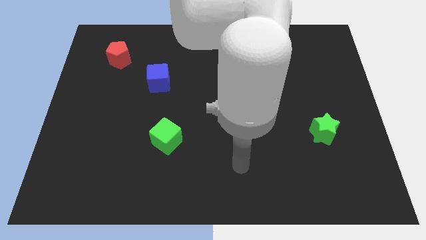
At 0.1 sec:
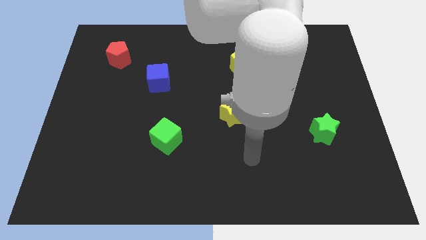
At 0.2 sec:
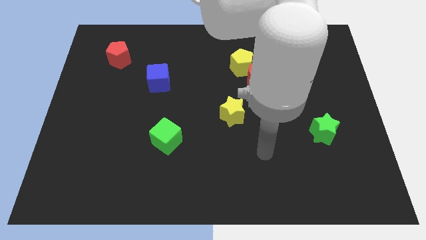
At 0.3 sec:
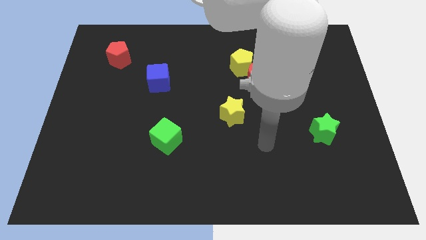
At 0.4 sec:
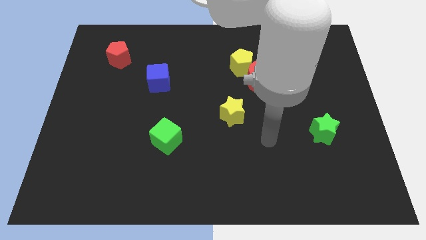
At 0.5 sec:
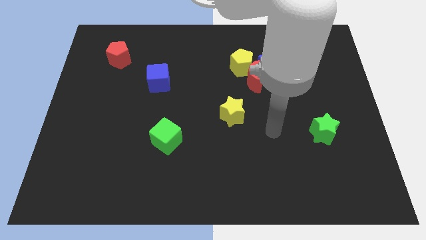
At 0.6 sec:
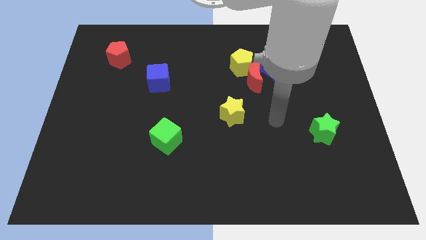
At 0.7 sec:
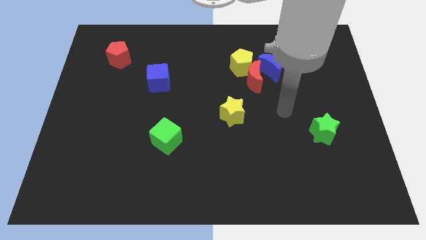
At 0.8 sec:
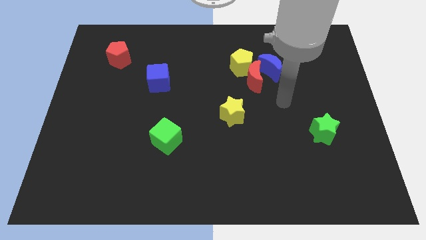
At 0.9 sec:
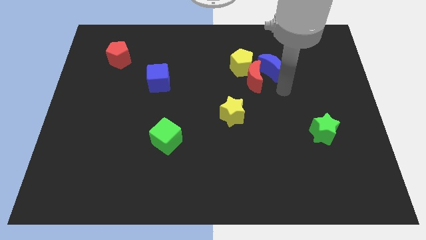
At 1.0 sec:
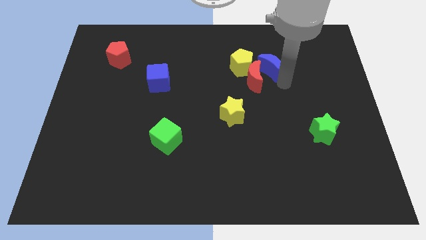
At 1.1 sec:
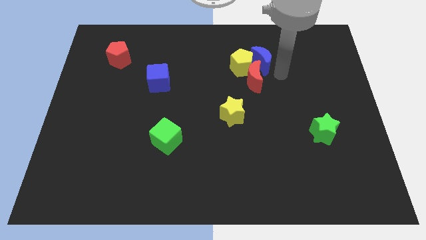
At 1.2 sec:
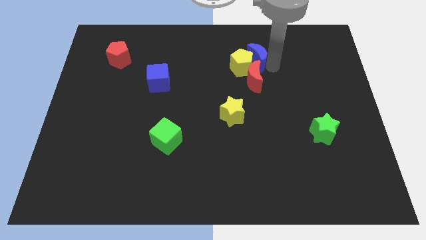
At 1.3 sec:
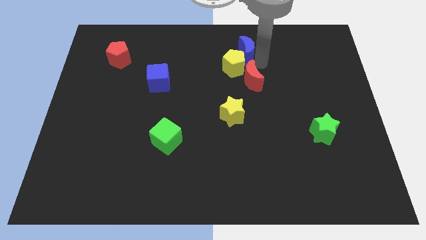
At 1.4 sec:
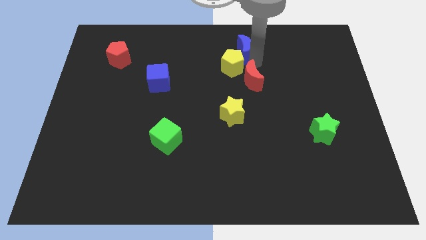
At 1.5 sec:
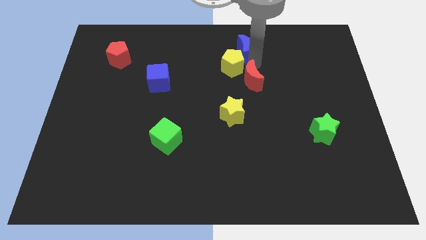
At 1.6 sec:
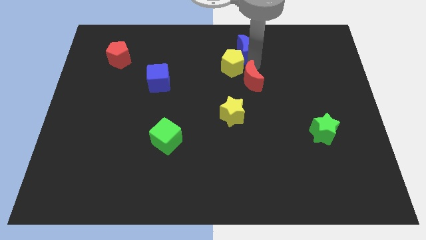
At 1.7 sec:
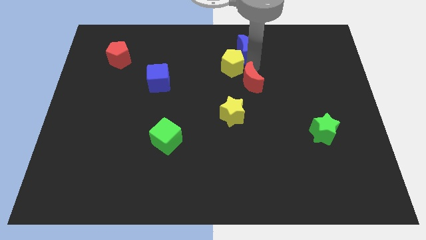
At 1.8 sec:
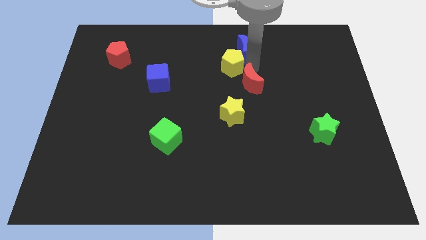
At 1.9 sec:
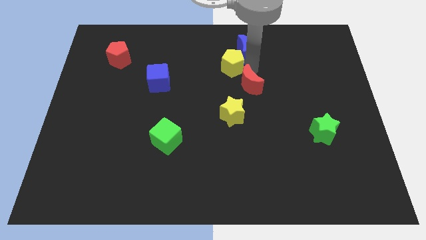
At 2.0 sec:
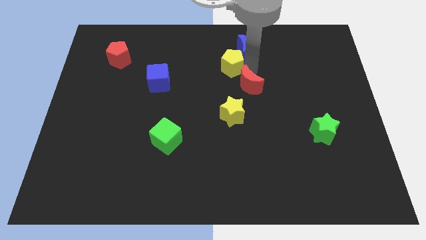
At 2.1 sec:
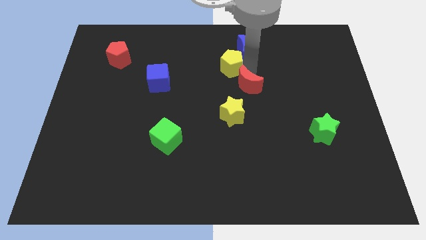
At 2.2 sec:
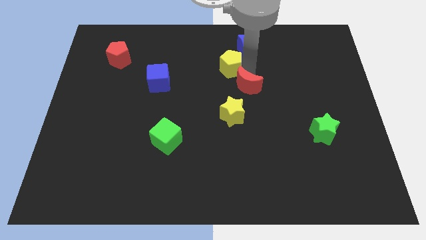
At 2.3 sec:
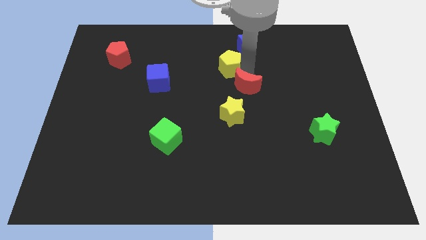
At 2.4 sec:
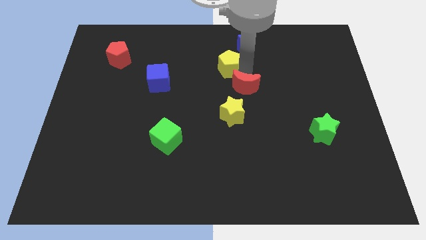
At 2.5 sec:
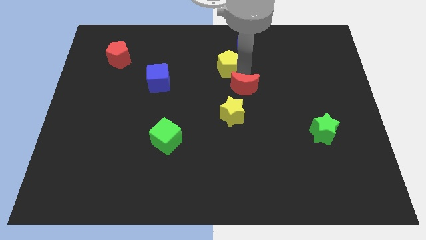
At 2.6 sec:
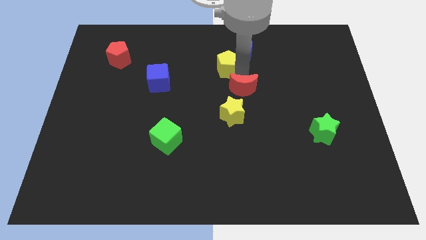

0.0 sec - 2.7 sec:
pull the red moon apart from the yellow pentagon and blue moon

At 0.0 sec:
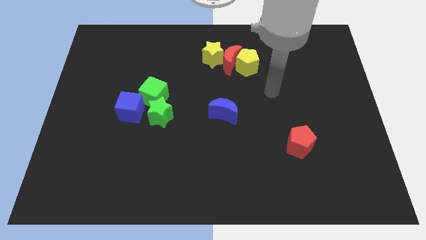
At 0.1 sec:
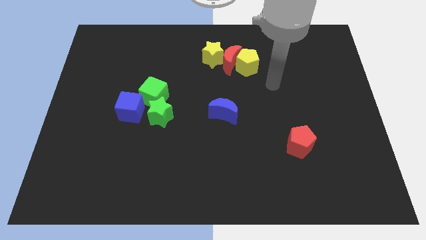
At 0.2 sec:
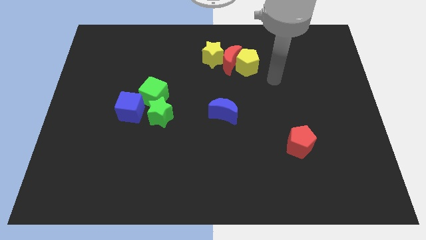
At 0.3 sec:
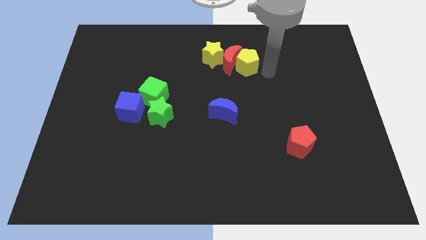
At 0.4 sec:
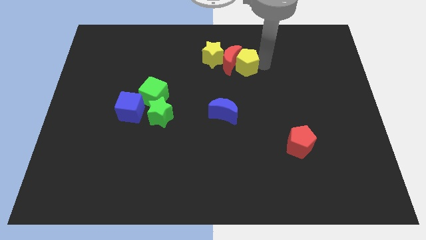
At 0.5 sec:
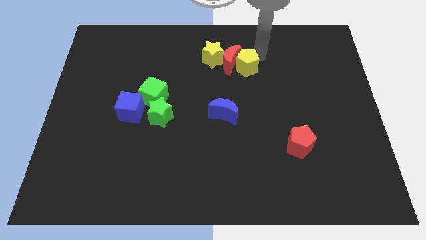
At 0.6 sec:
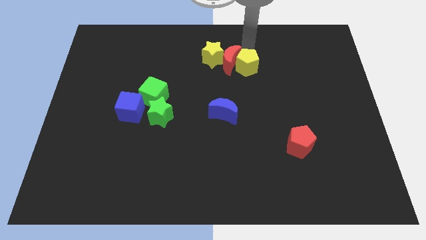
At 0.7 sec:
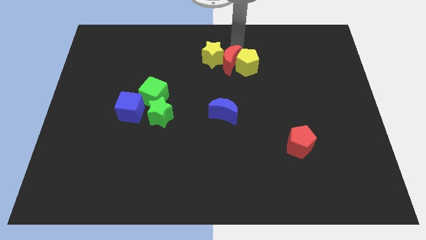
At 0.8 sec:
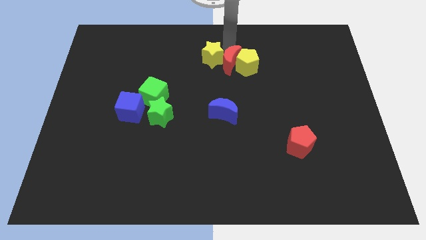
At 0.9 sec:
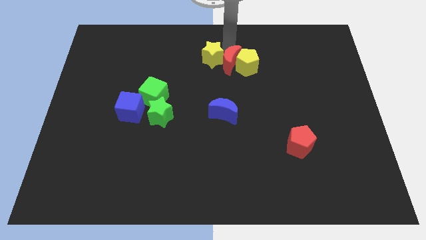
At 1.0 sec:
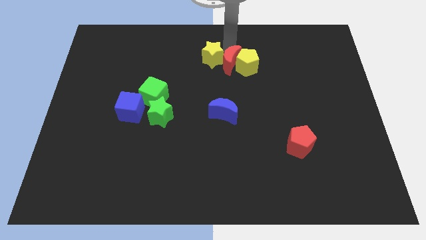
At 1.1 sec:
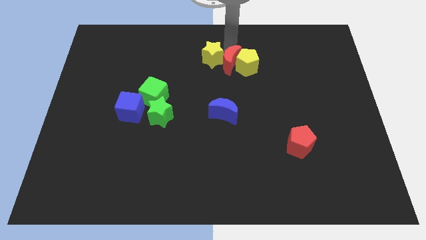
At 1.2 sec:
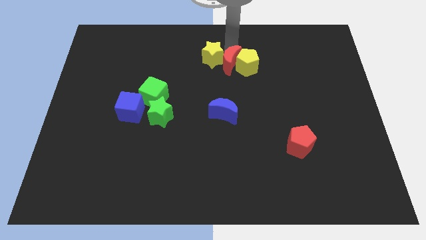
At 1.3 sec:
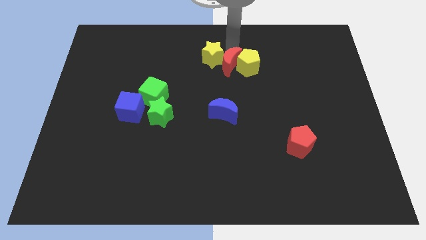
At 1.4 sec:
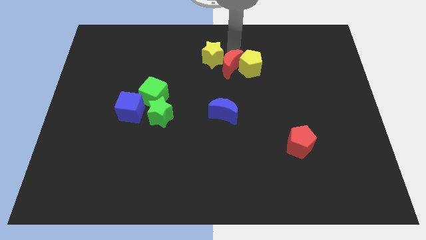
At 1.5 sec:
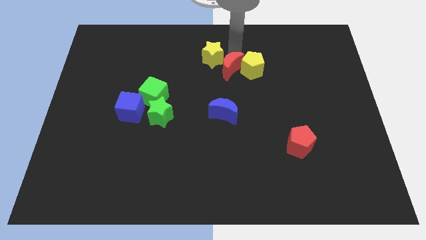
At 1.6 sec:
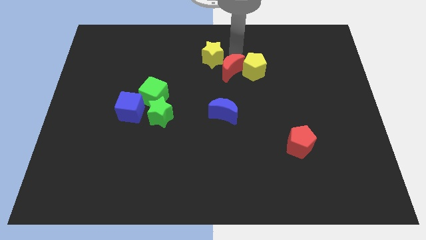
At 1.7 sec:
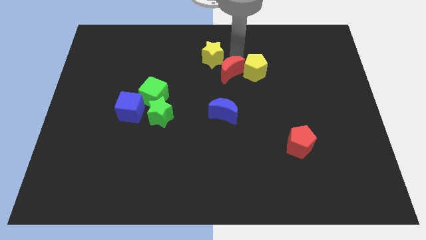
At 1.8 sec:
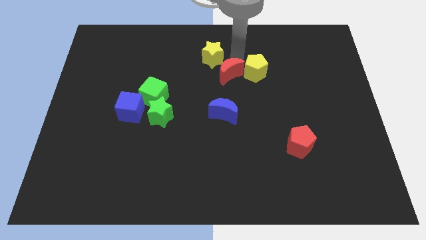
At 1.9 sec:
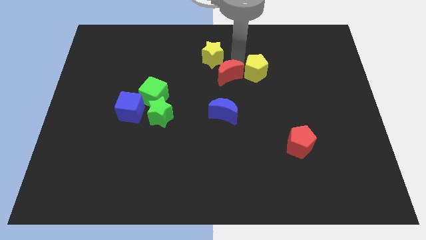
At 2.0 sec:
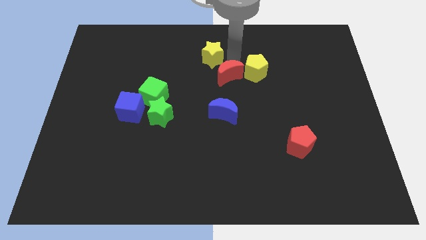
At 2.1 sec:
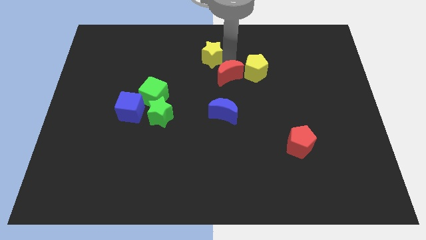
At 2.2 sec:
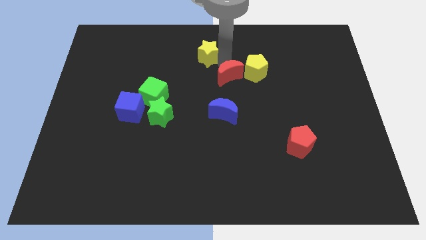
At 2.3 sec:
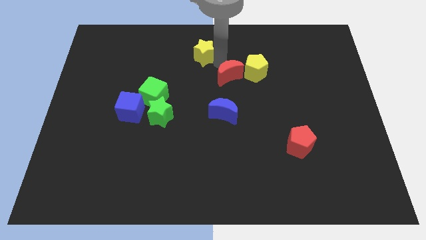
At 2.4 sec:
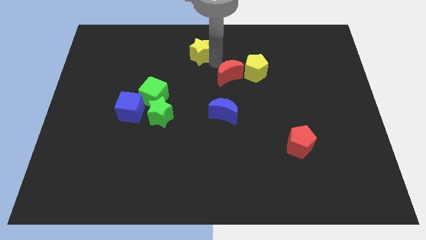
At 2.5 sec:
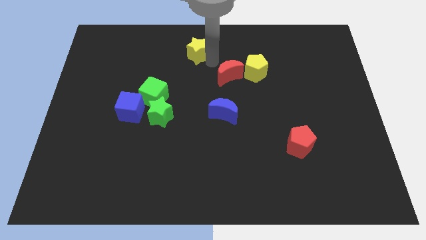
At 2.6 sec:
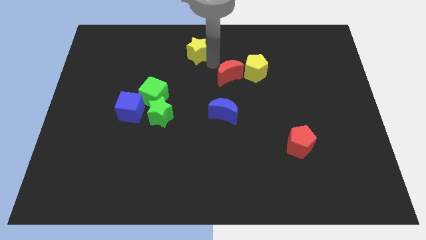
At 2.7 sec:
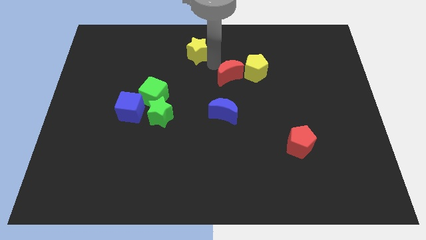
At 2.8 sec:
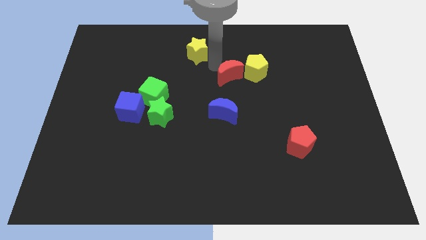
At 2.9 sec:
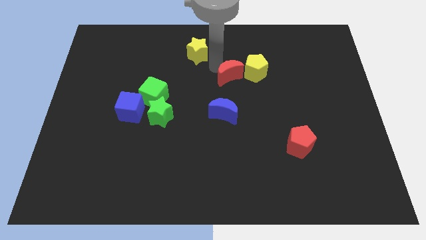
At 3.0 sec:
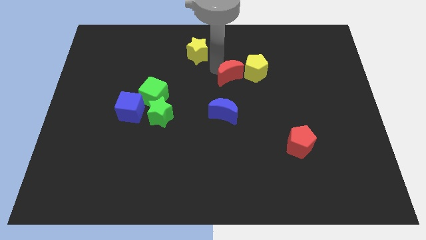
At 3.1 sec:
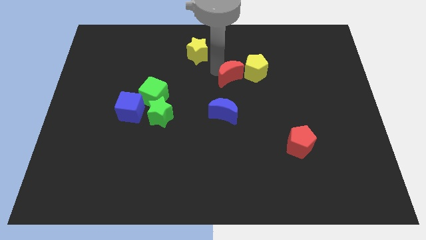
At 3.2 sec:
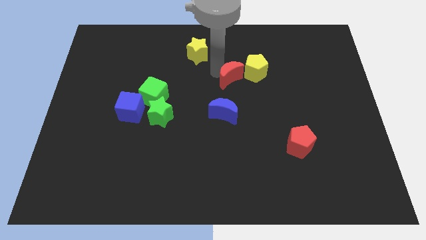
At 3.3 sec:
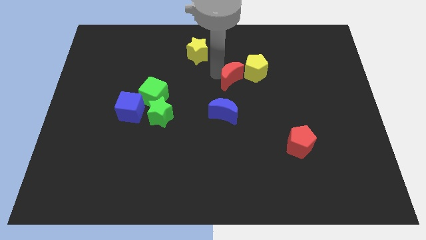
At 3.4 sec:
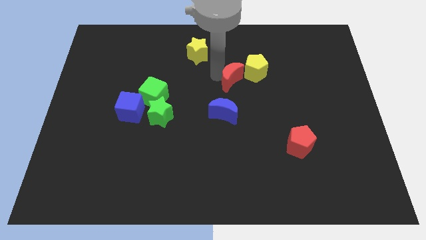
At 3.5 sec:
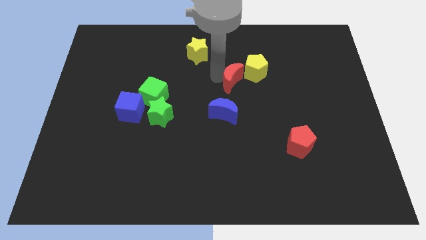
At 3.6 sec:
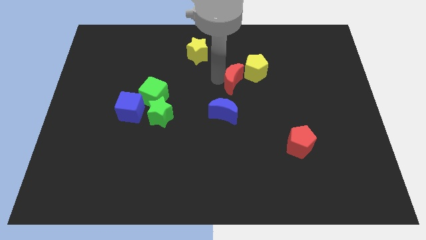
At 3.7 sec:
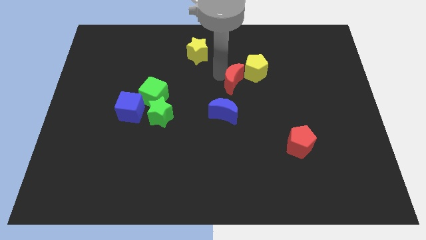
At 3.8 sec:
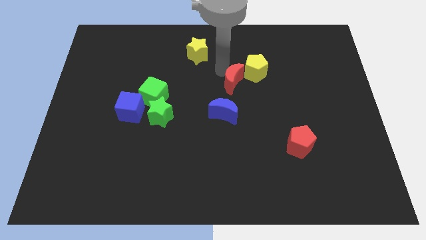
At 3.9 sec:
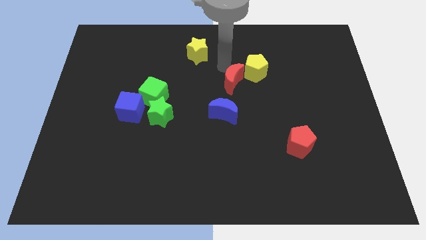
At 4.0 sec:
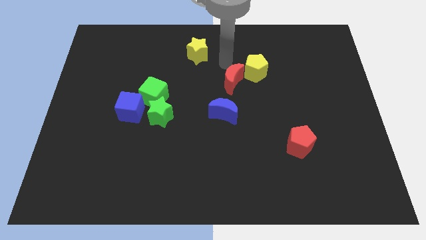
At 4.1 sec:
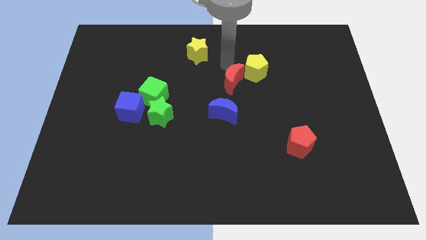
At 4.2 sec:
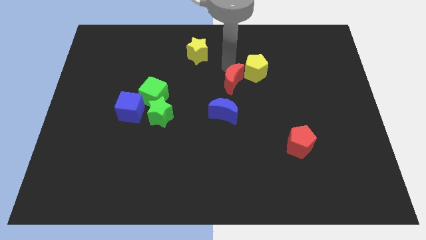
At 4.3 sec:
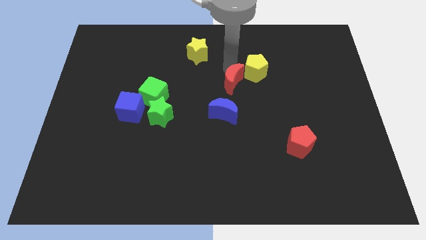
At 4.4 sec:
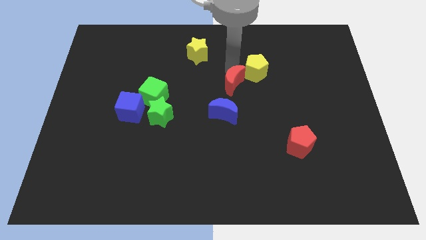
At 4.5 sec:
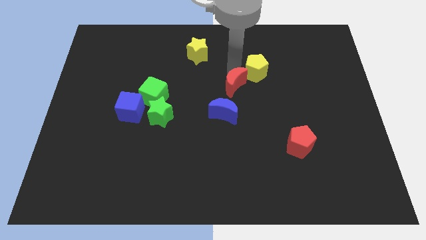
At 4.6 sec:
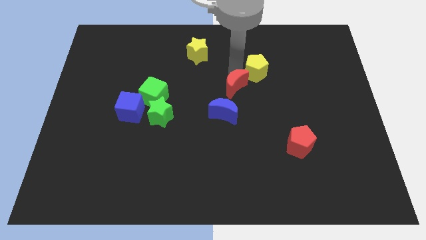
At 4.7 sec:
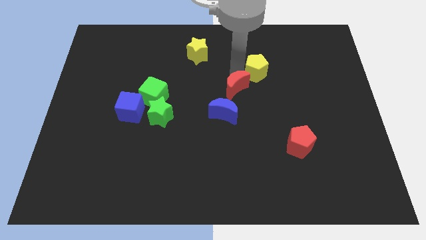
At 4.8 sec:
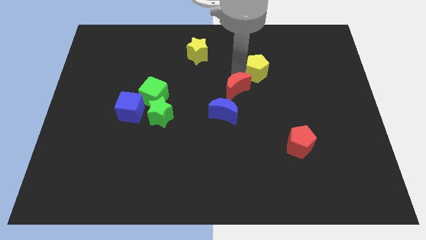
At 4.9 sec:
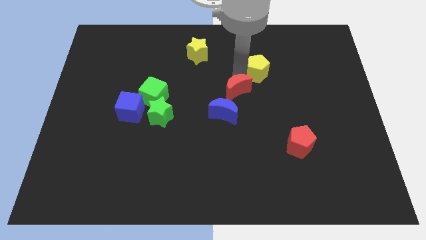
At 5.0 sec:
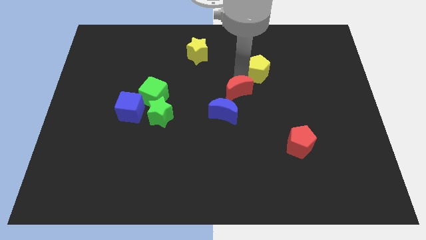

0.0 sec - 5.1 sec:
separate the red moon from the yellow pentagon and yellow star

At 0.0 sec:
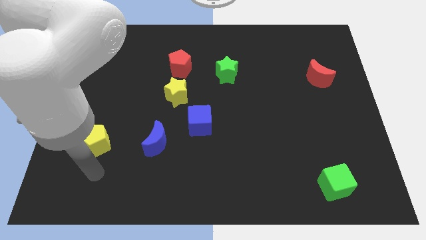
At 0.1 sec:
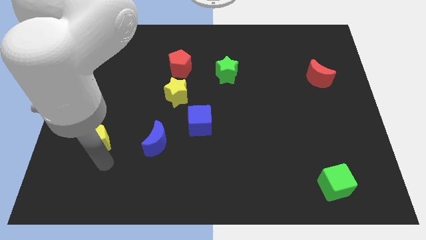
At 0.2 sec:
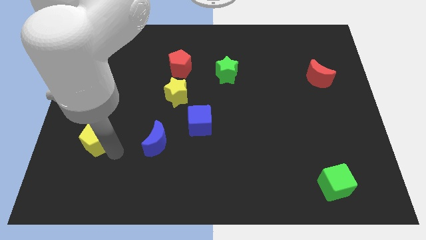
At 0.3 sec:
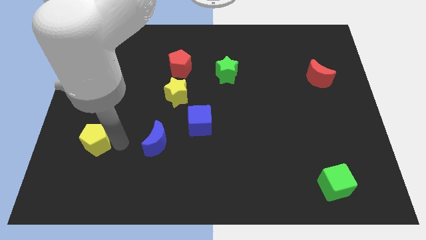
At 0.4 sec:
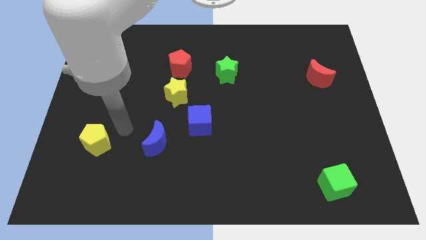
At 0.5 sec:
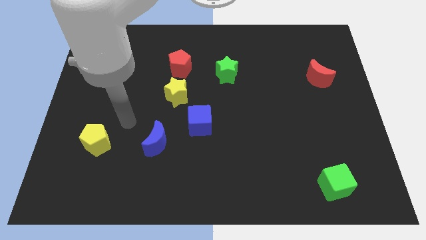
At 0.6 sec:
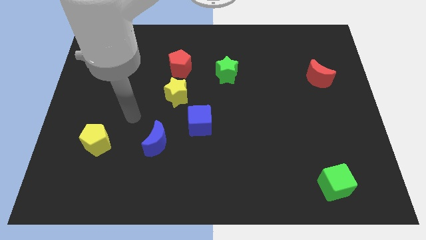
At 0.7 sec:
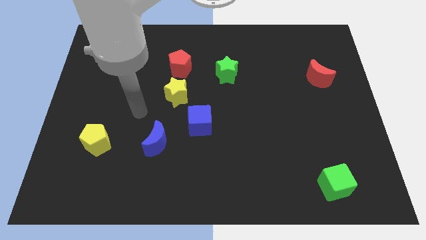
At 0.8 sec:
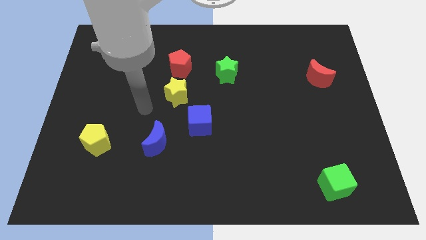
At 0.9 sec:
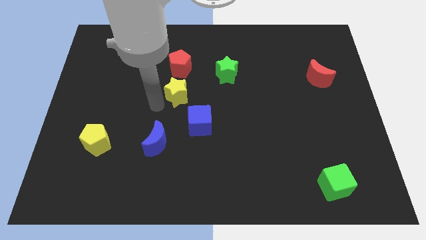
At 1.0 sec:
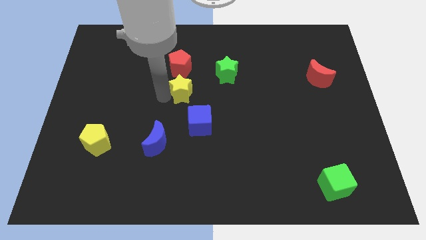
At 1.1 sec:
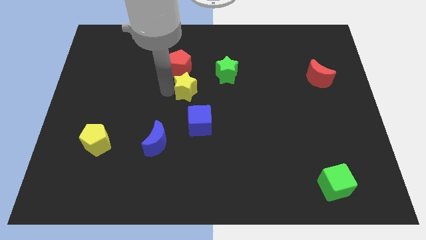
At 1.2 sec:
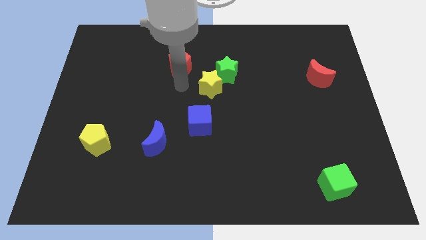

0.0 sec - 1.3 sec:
pull the red pentagon apart from the yellow star

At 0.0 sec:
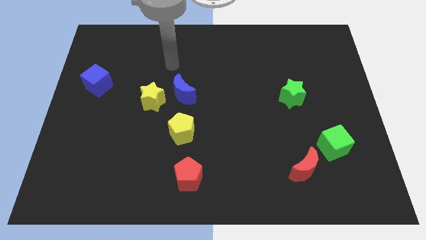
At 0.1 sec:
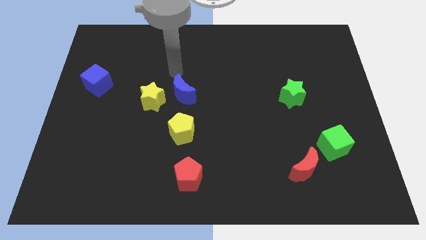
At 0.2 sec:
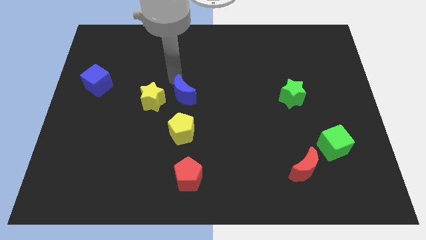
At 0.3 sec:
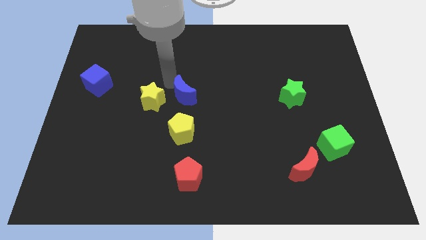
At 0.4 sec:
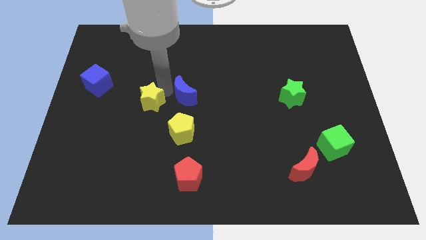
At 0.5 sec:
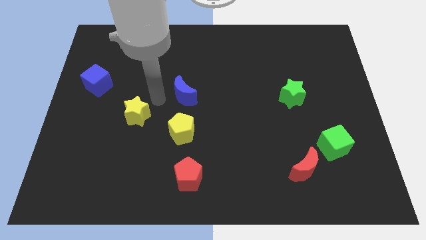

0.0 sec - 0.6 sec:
separate the blue moon from the yellow star
